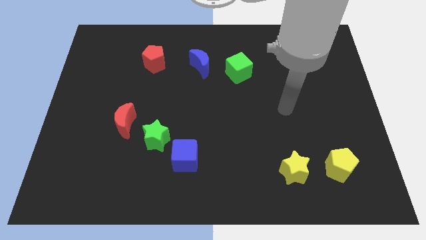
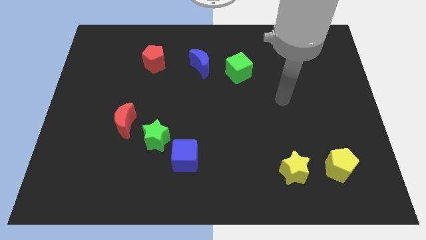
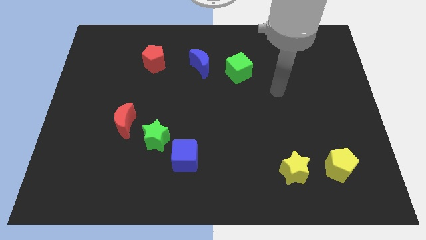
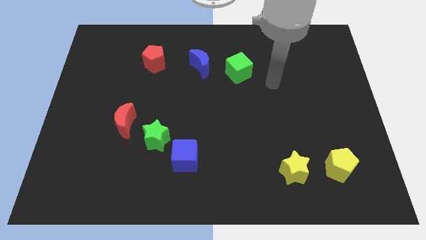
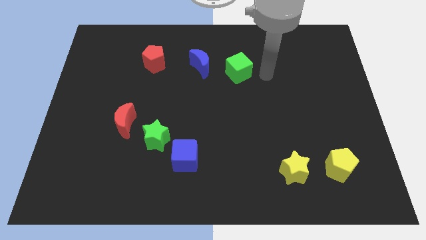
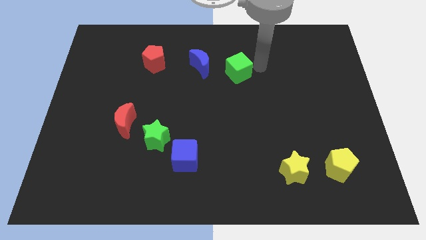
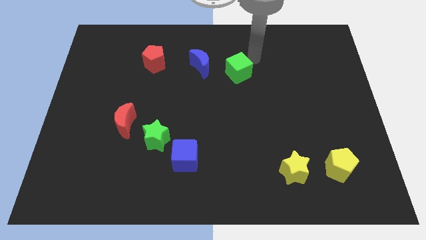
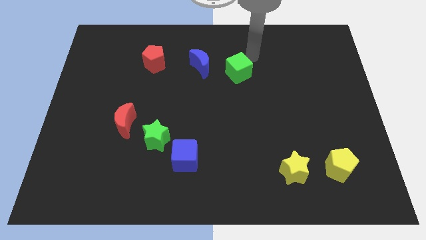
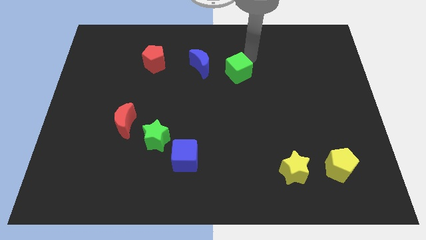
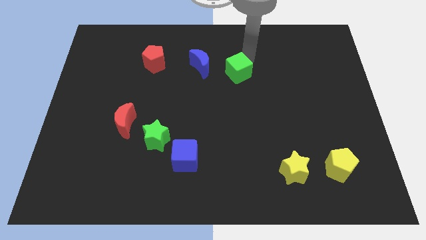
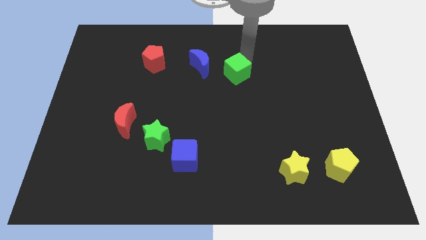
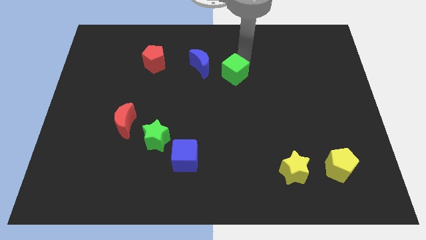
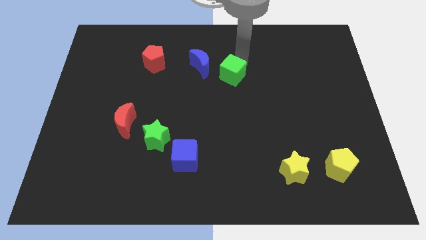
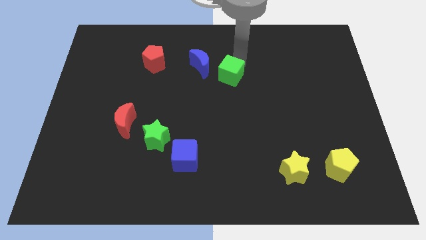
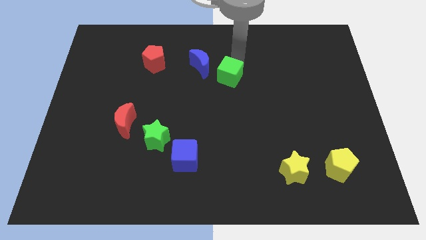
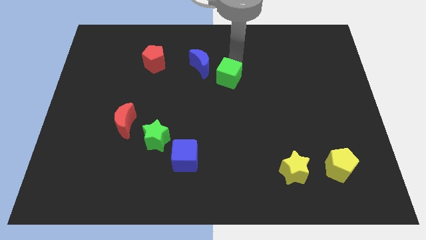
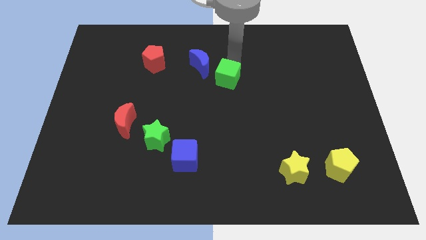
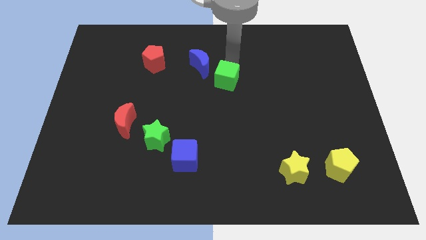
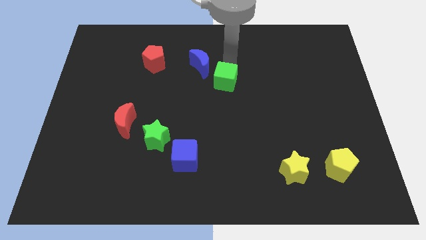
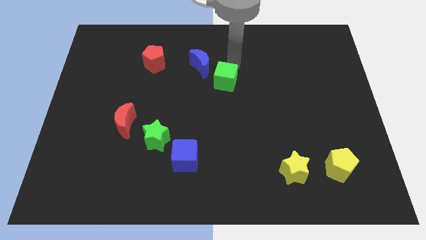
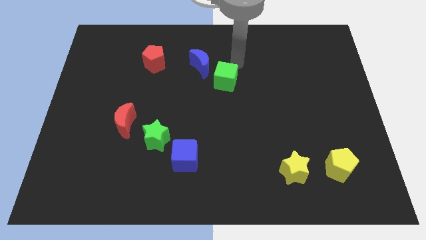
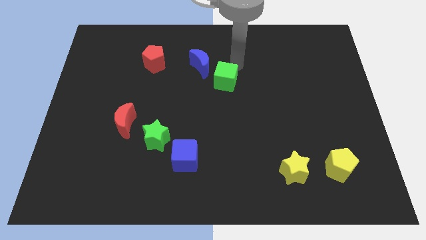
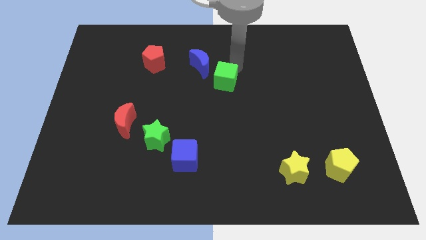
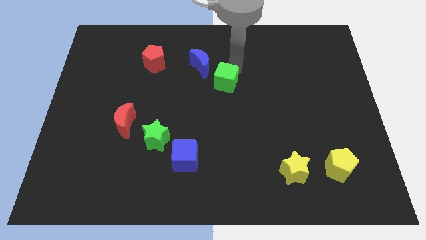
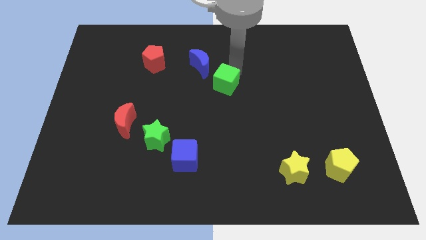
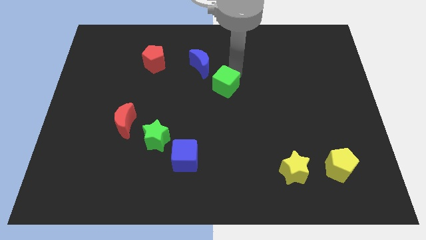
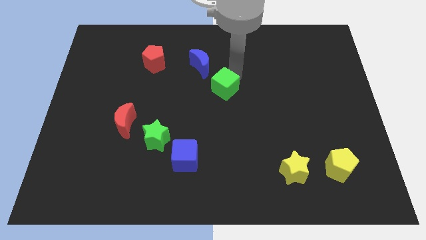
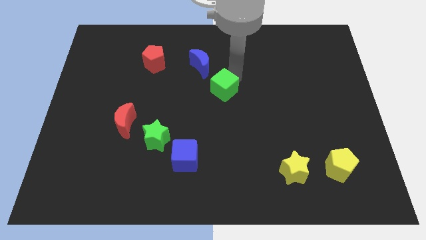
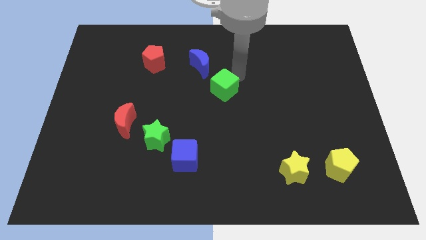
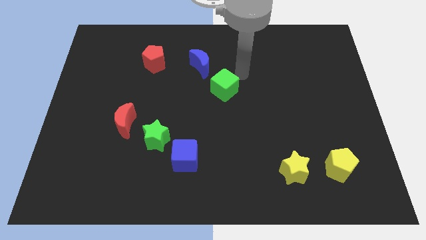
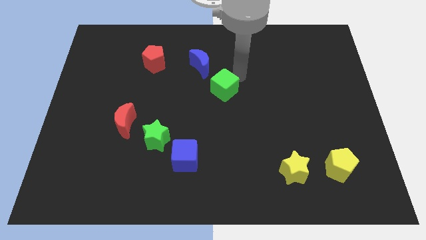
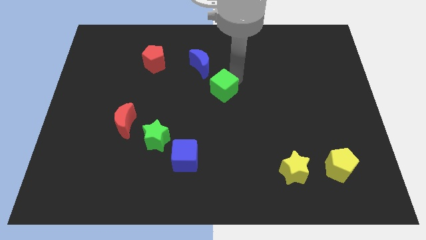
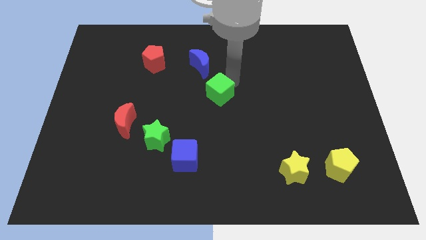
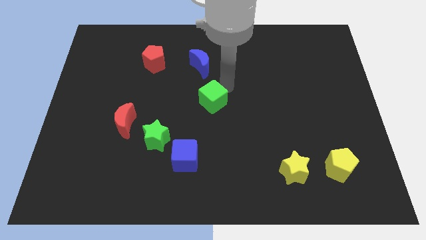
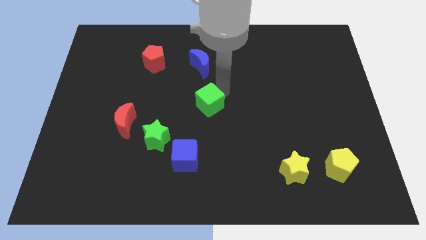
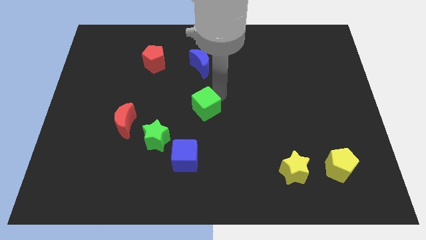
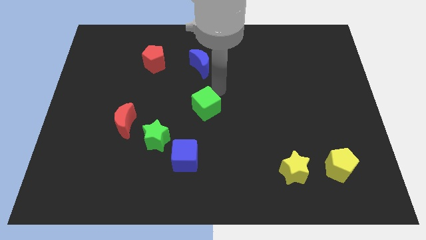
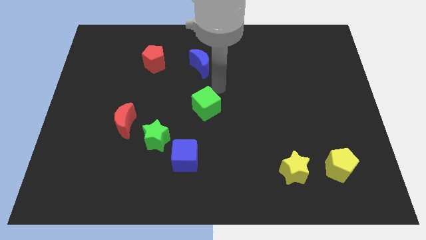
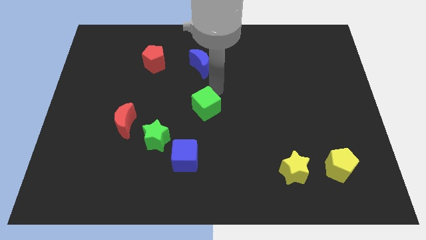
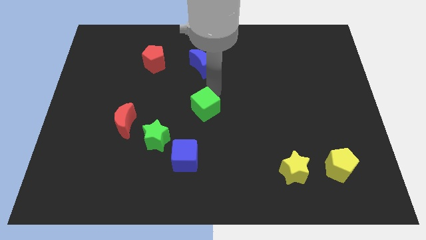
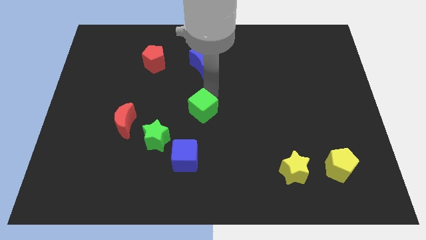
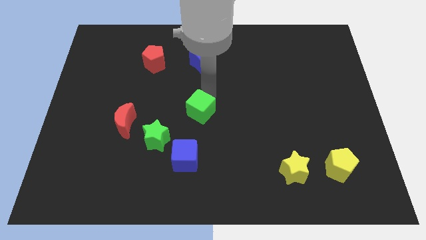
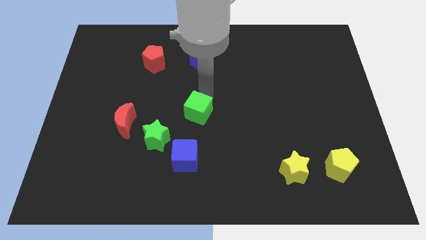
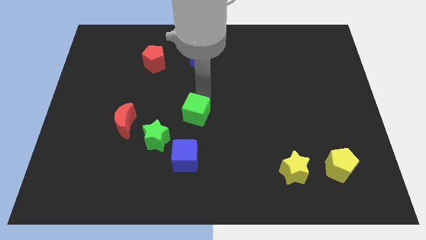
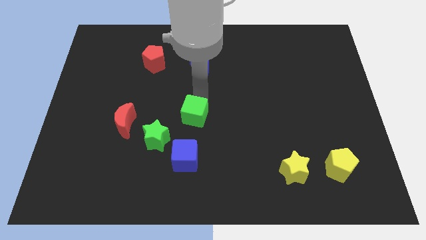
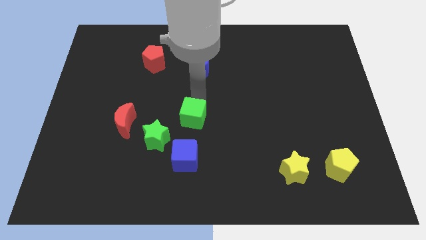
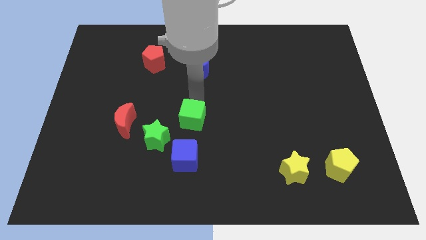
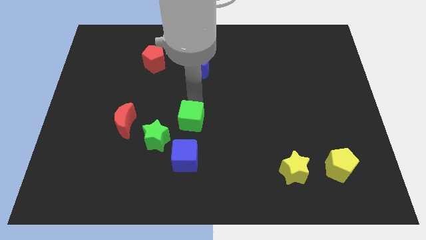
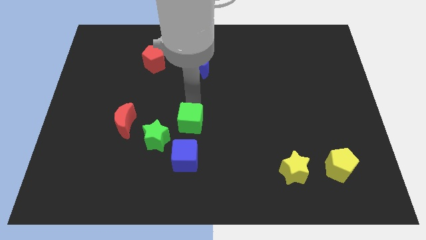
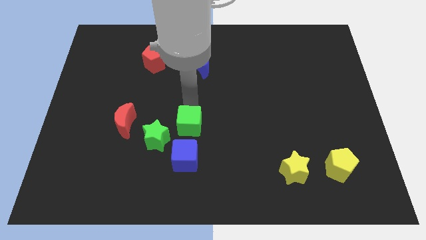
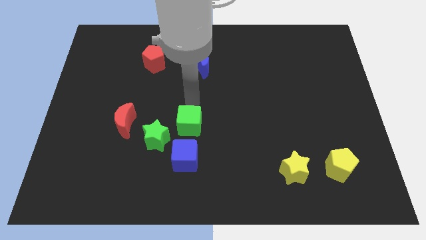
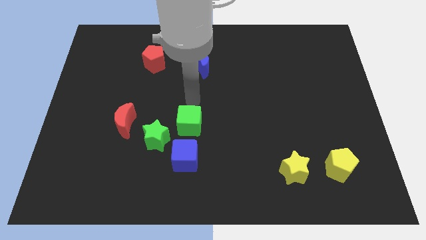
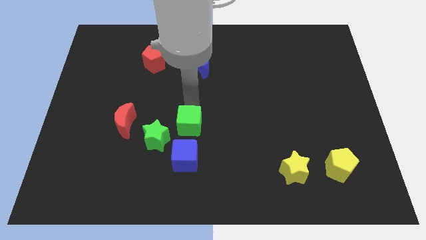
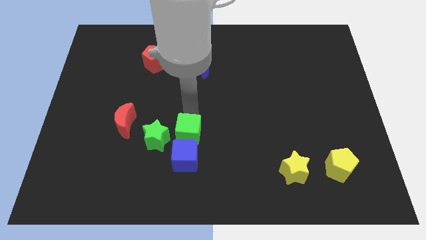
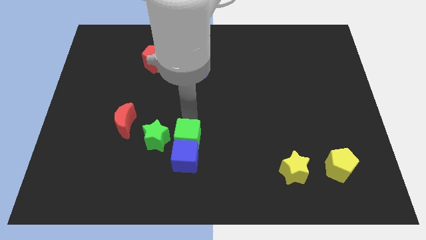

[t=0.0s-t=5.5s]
move the green cube to the blue cube

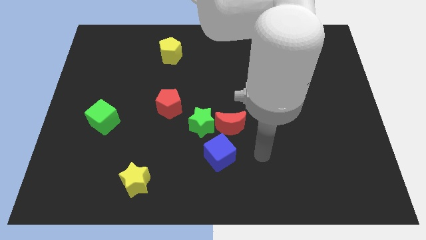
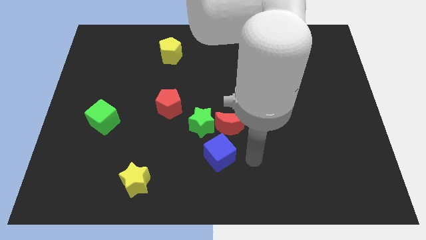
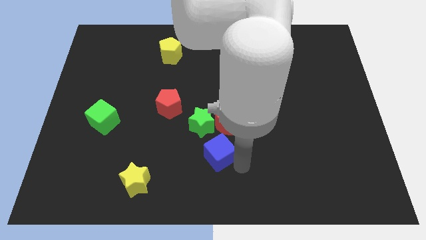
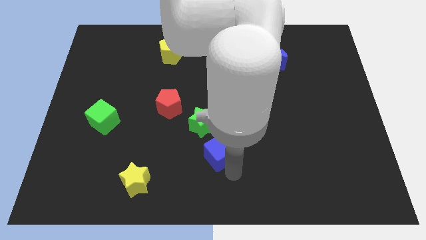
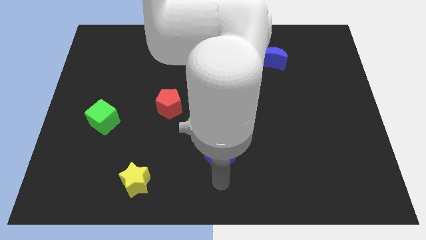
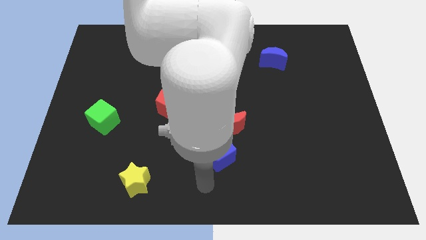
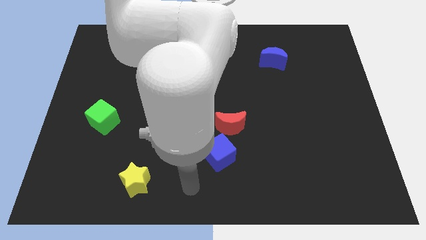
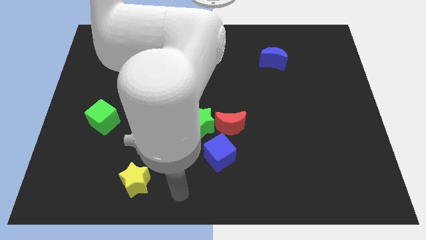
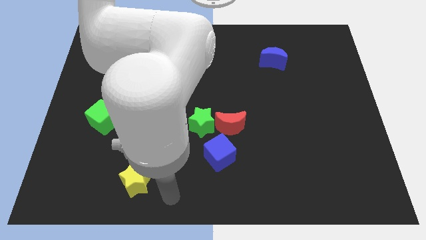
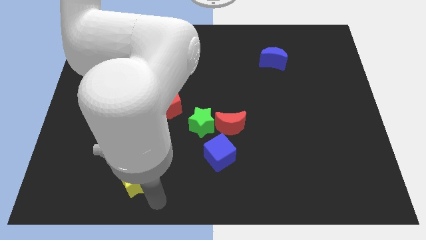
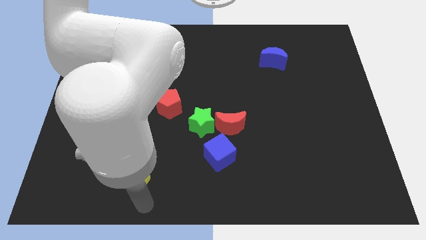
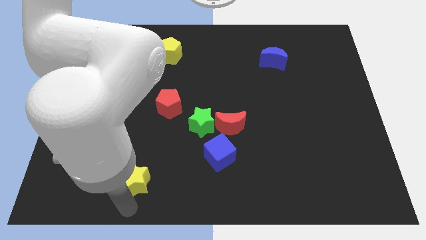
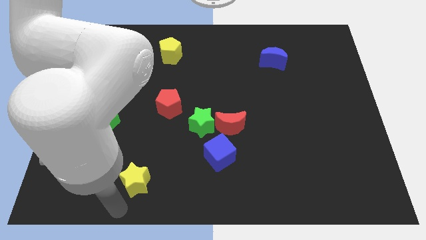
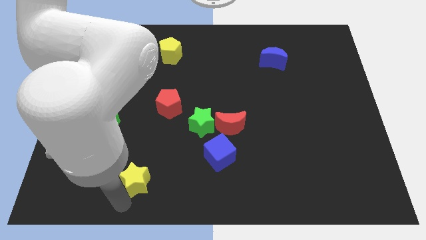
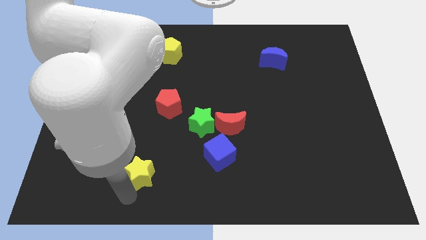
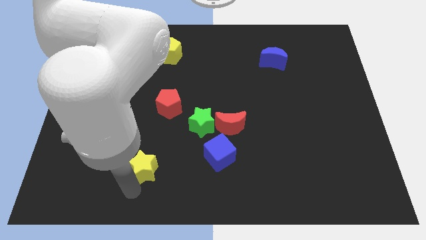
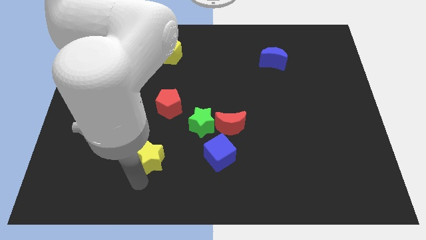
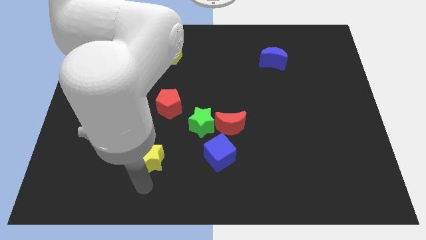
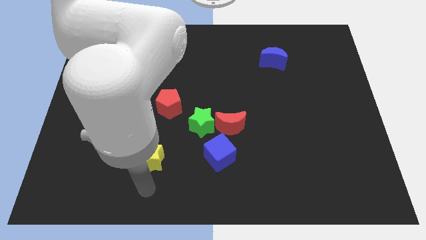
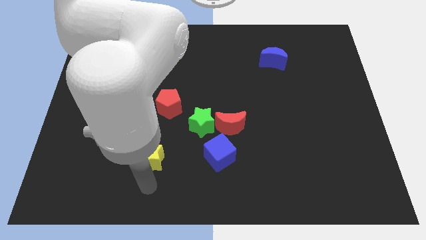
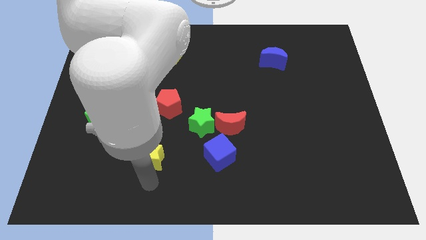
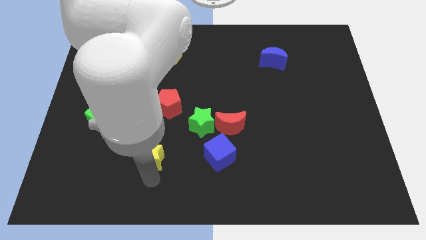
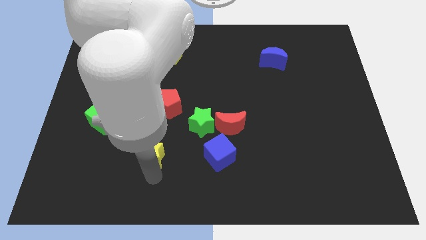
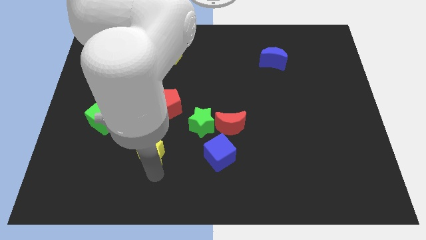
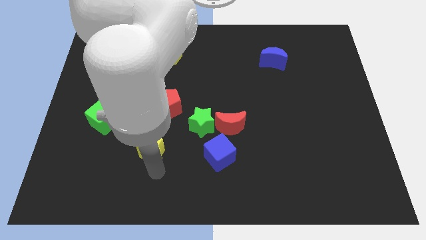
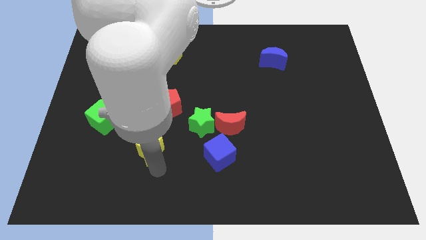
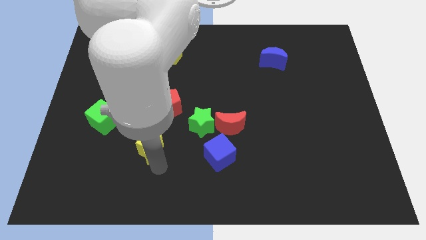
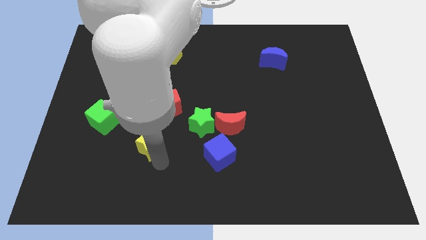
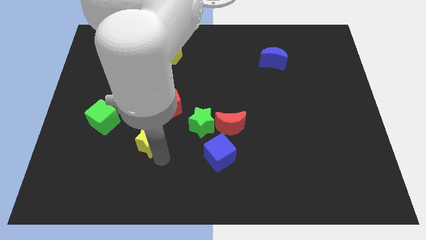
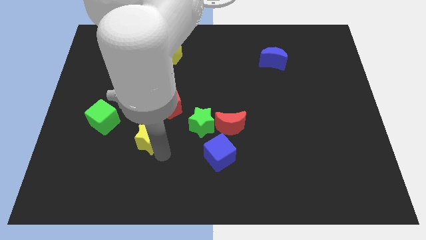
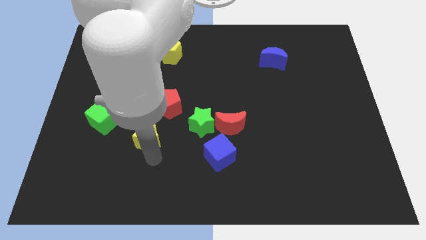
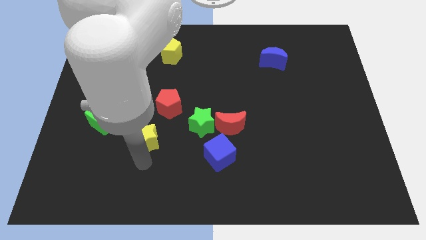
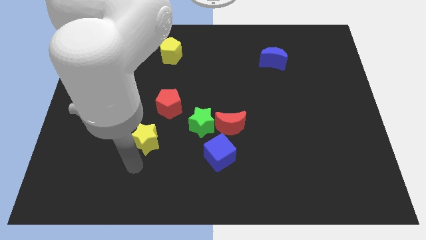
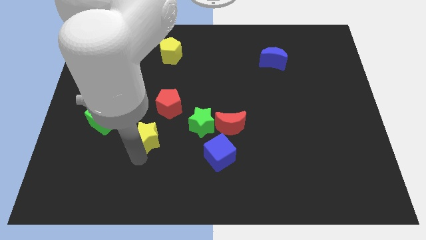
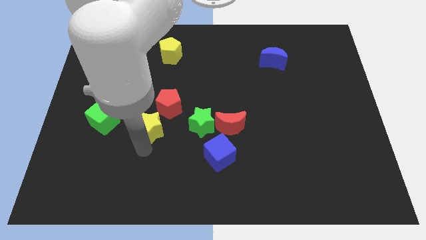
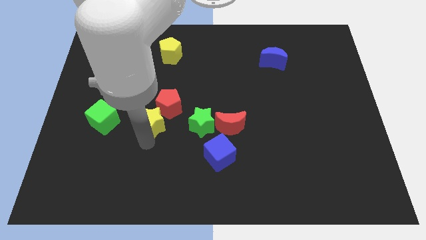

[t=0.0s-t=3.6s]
move the yellow star to the red pentagon
